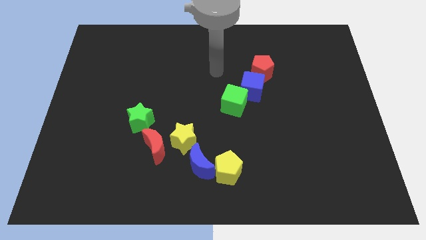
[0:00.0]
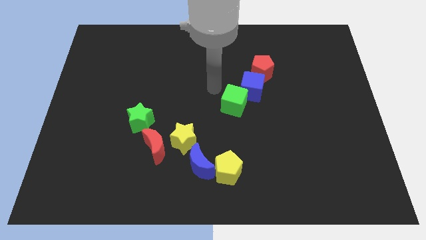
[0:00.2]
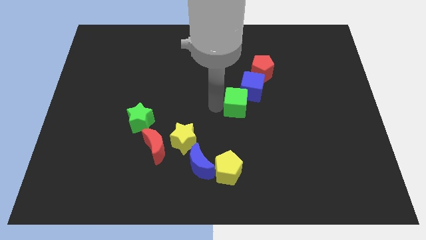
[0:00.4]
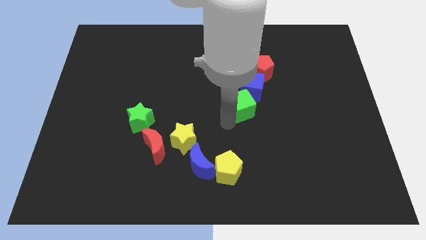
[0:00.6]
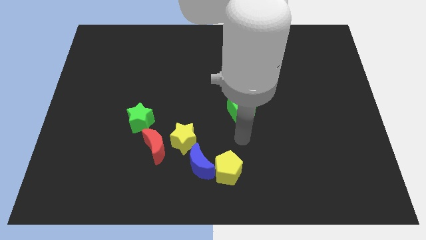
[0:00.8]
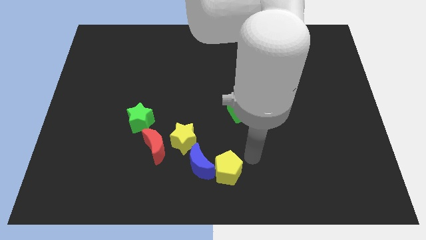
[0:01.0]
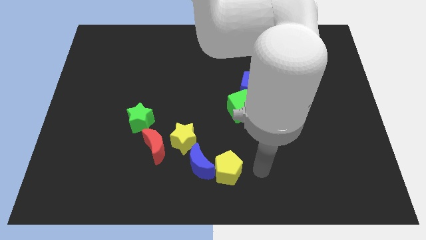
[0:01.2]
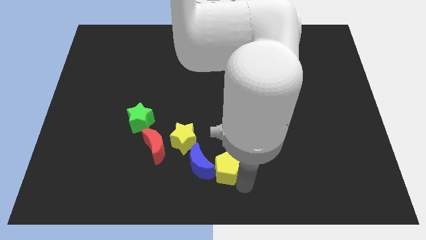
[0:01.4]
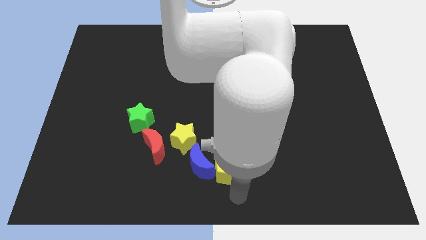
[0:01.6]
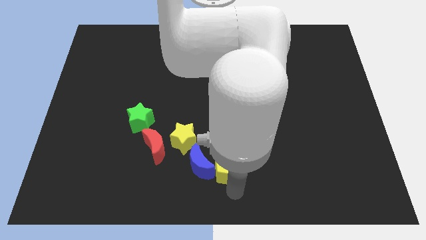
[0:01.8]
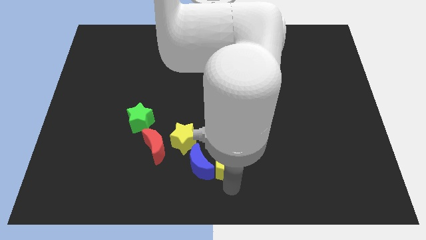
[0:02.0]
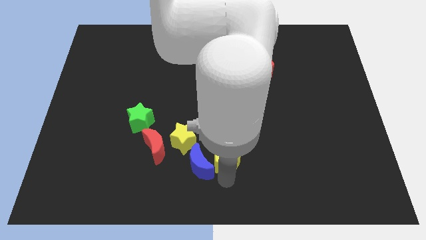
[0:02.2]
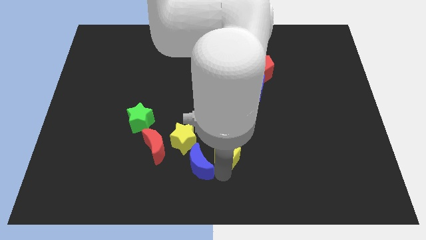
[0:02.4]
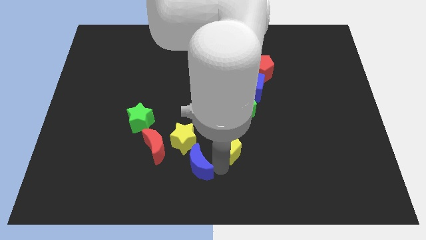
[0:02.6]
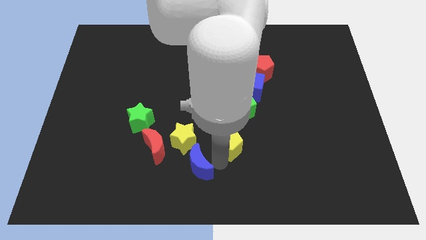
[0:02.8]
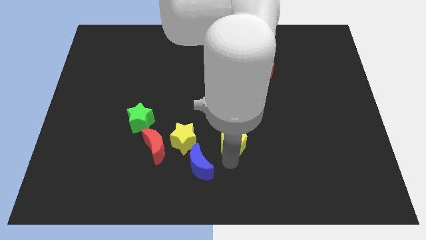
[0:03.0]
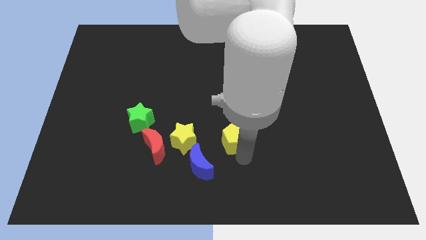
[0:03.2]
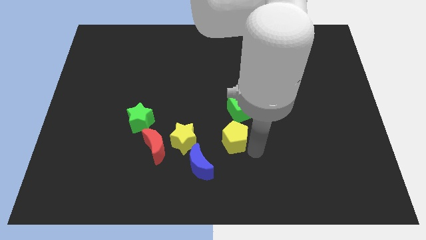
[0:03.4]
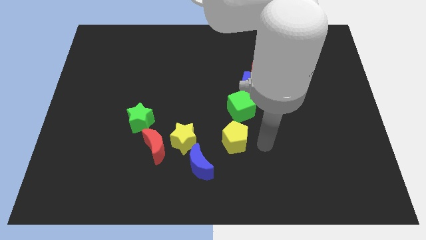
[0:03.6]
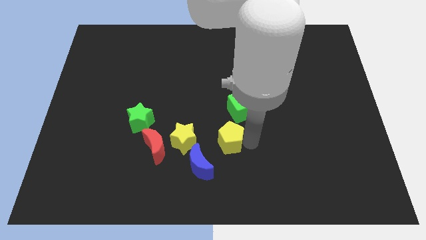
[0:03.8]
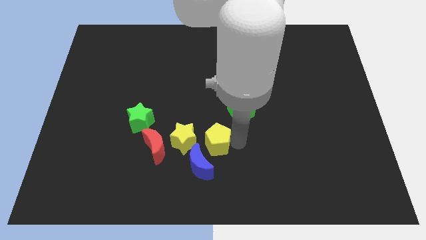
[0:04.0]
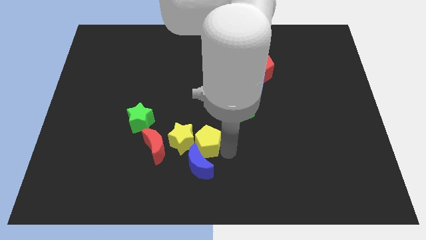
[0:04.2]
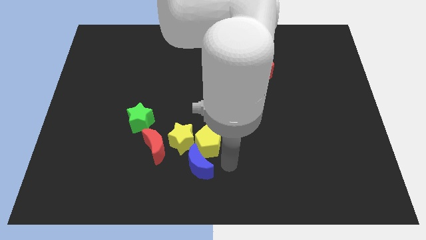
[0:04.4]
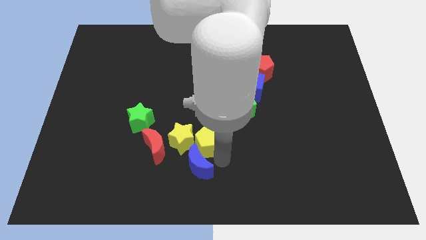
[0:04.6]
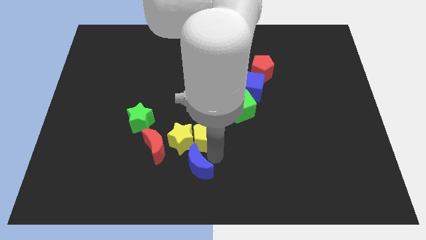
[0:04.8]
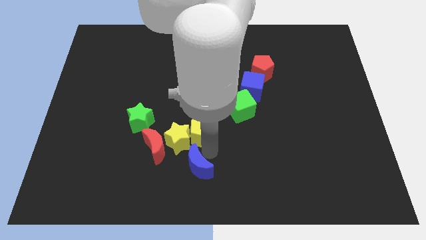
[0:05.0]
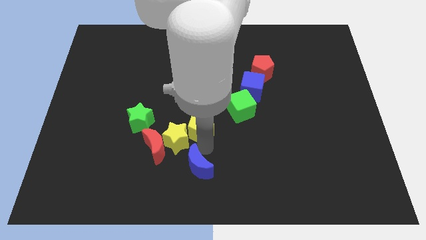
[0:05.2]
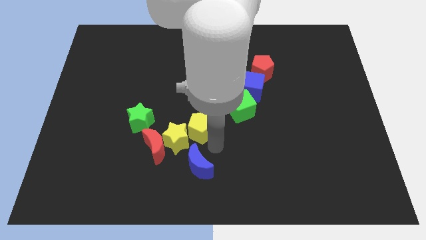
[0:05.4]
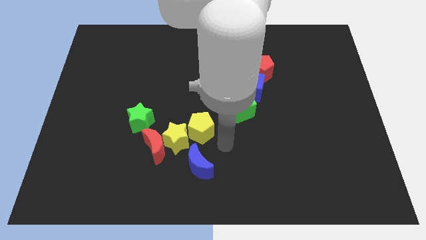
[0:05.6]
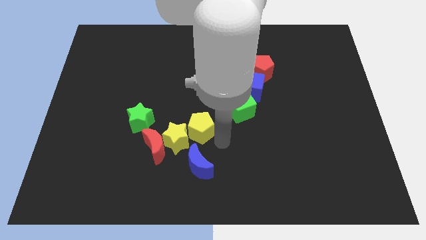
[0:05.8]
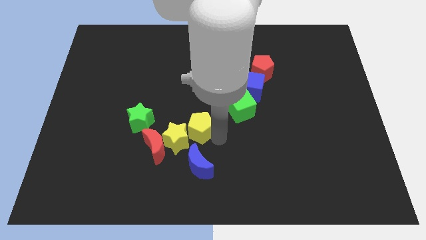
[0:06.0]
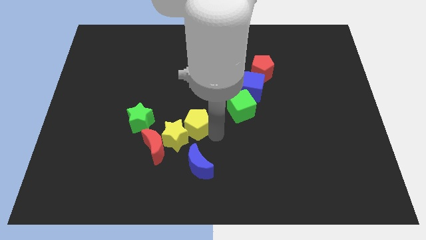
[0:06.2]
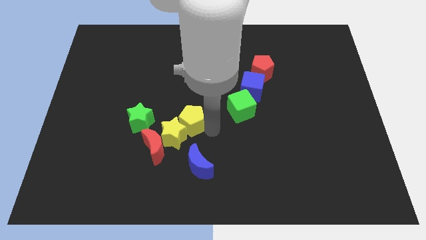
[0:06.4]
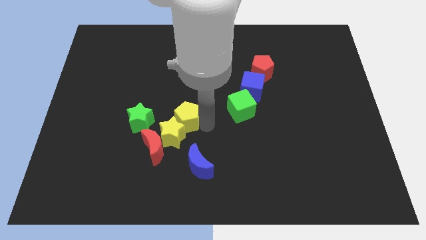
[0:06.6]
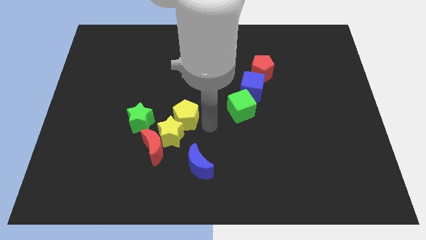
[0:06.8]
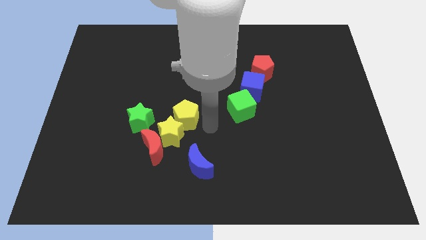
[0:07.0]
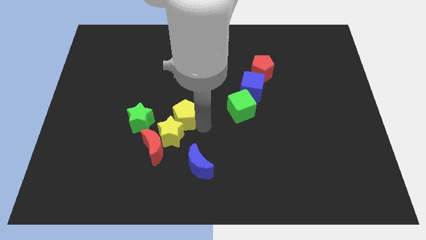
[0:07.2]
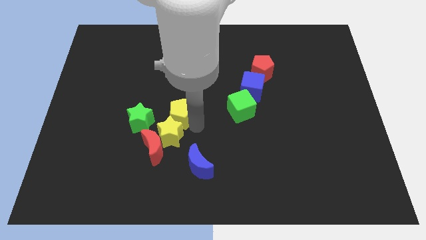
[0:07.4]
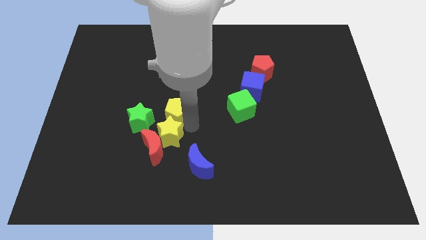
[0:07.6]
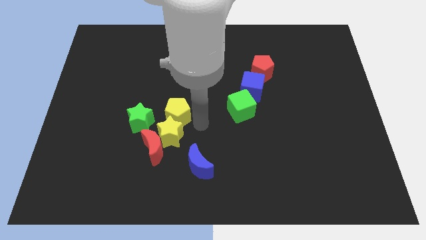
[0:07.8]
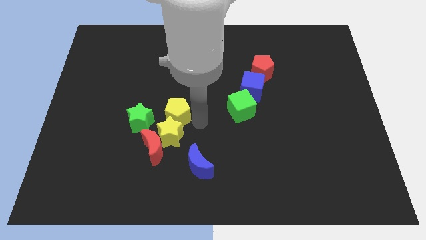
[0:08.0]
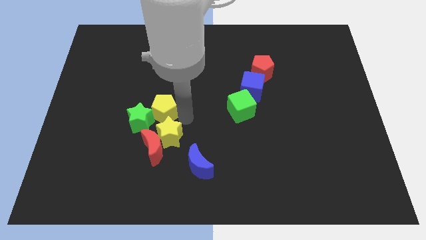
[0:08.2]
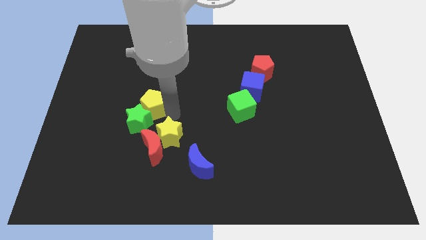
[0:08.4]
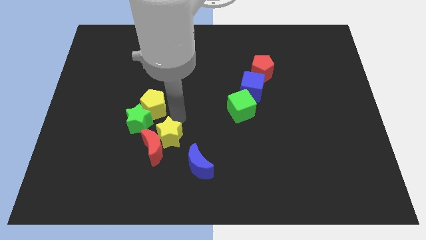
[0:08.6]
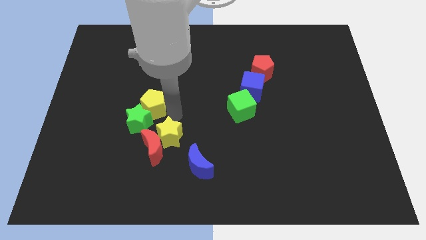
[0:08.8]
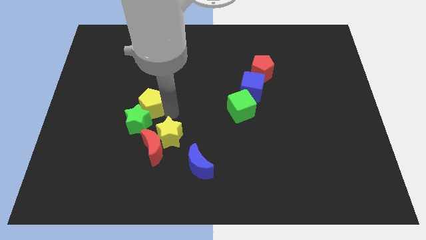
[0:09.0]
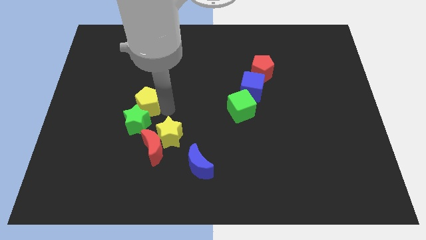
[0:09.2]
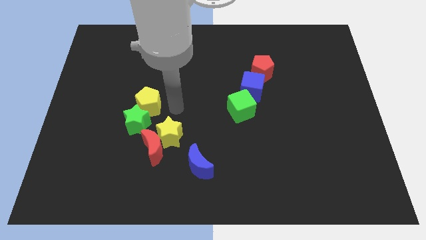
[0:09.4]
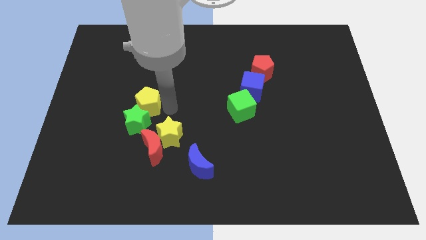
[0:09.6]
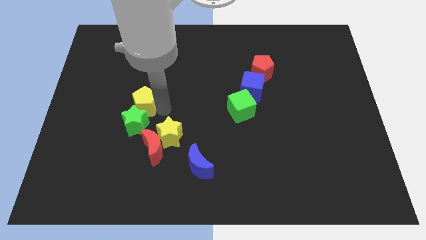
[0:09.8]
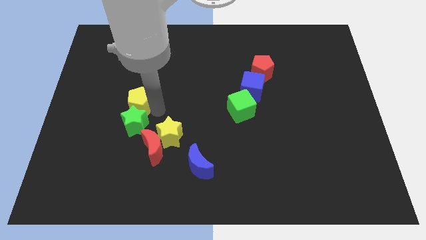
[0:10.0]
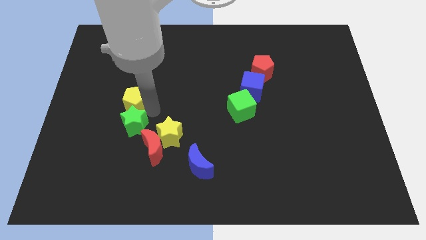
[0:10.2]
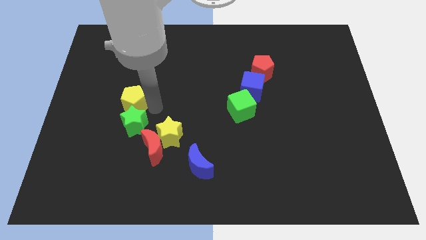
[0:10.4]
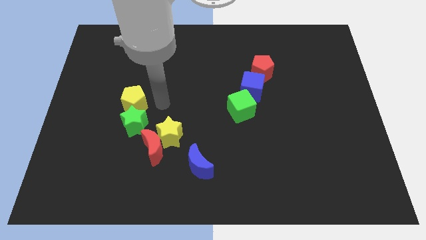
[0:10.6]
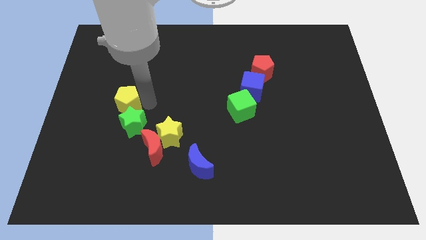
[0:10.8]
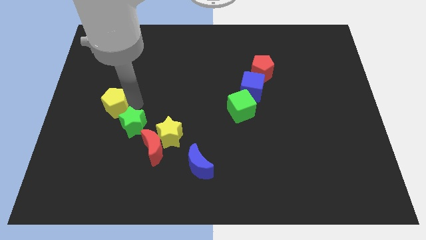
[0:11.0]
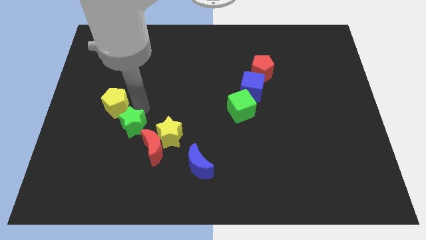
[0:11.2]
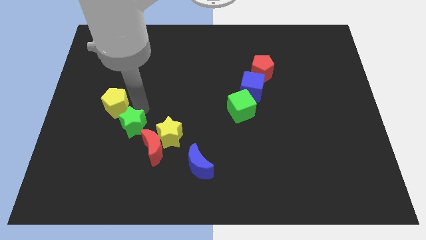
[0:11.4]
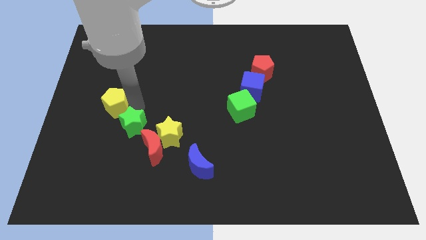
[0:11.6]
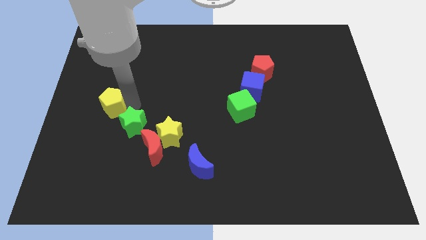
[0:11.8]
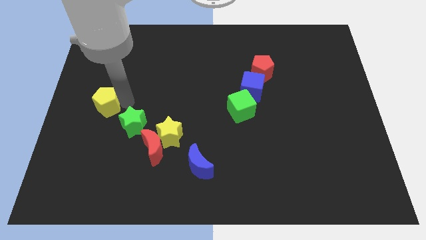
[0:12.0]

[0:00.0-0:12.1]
push the yellow pentagon to the left side of the board
